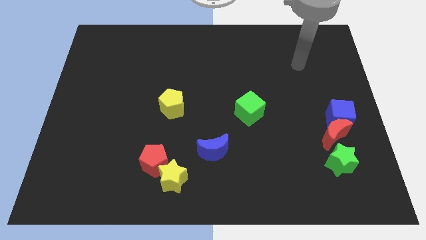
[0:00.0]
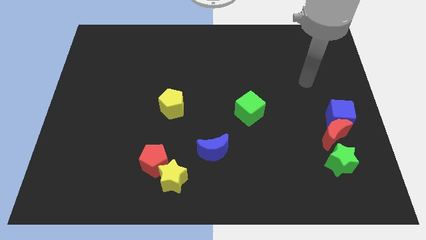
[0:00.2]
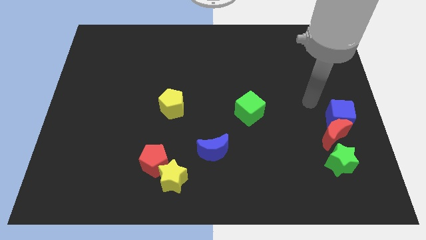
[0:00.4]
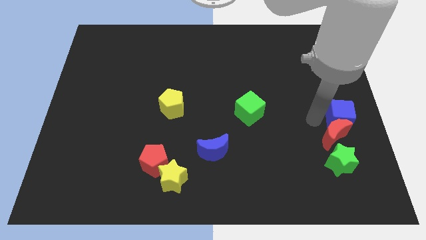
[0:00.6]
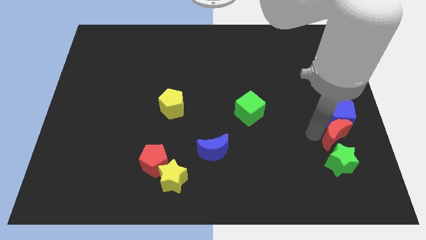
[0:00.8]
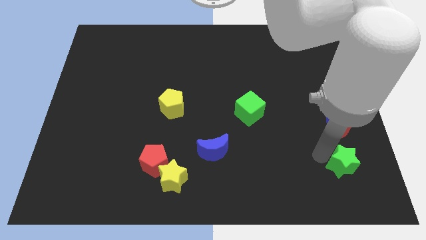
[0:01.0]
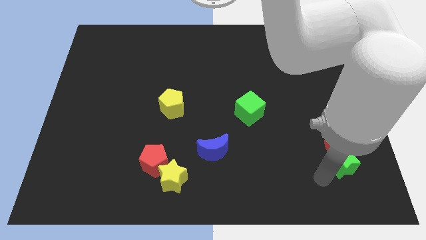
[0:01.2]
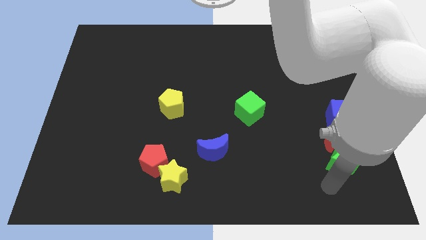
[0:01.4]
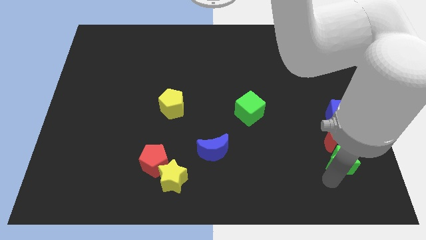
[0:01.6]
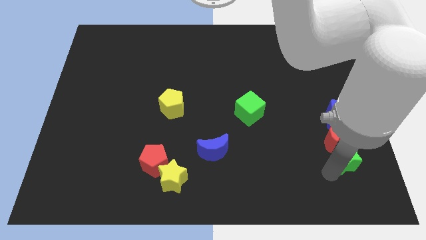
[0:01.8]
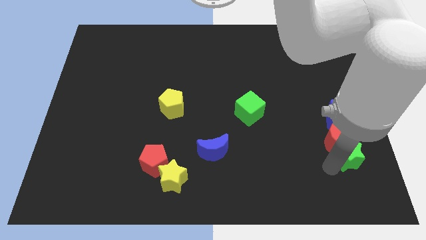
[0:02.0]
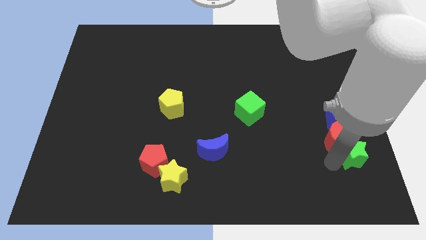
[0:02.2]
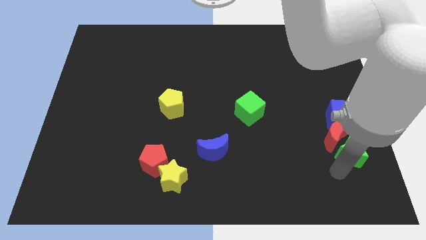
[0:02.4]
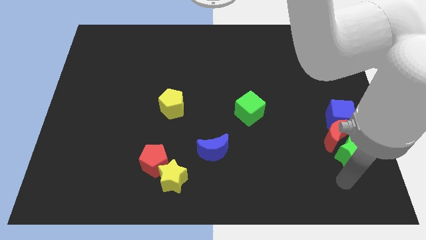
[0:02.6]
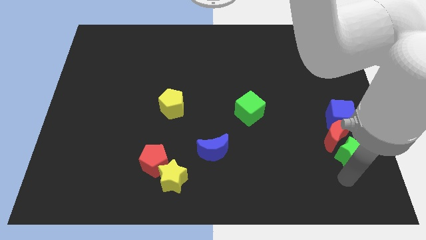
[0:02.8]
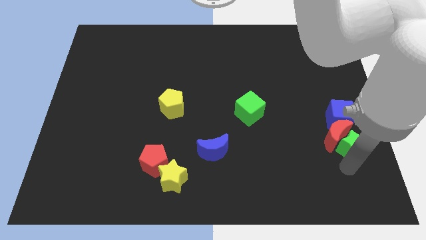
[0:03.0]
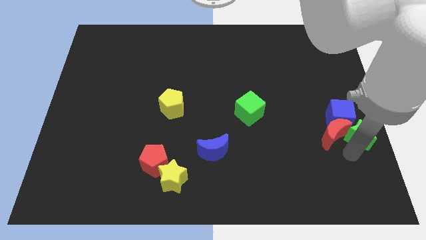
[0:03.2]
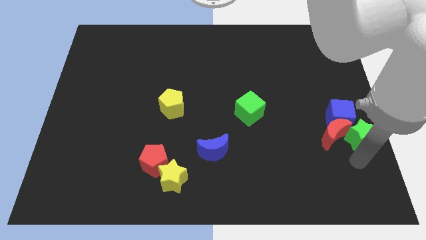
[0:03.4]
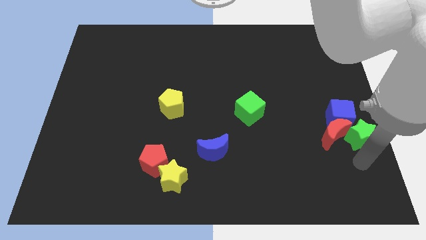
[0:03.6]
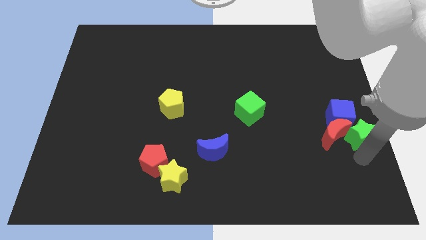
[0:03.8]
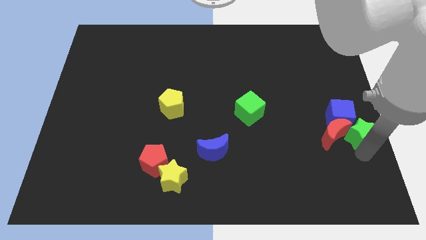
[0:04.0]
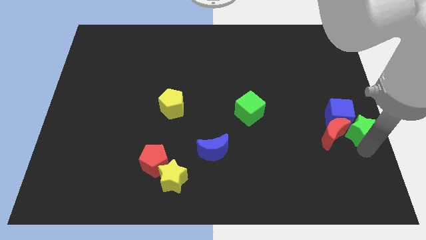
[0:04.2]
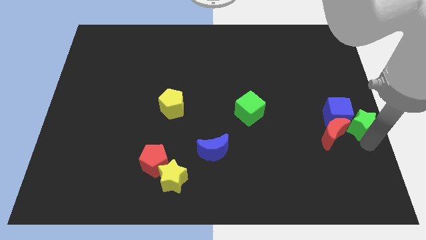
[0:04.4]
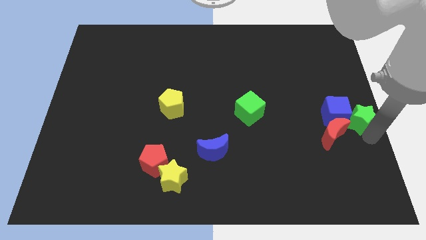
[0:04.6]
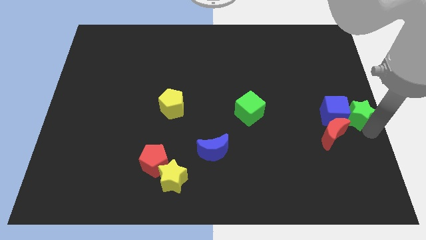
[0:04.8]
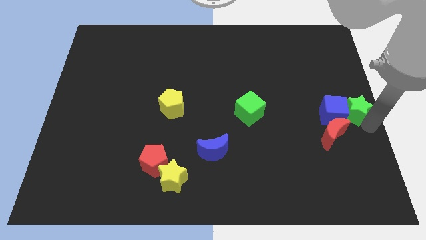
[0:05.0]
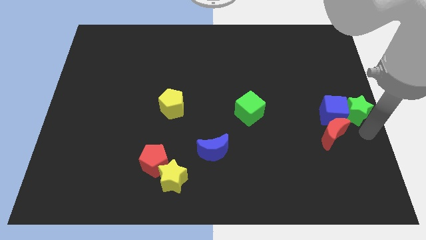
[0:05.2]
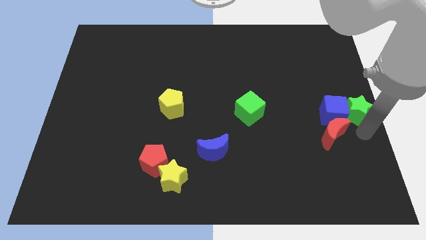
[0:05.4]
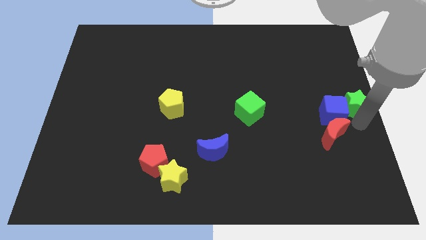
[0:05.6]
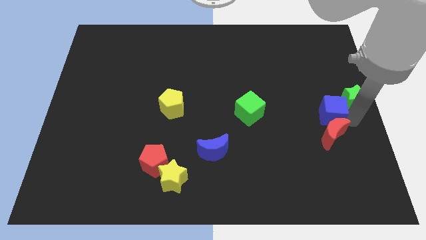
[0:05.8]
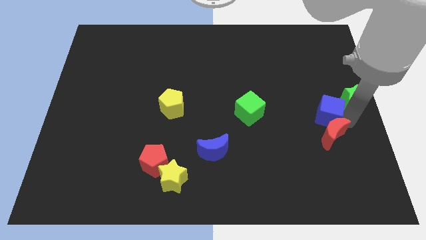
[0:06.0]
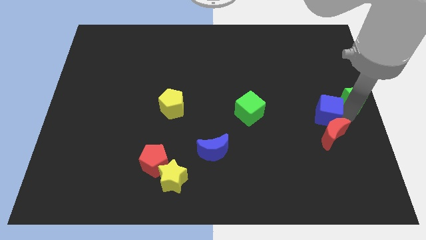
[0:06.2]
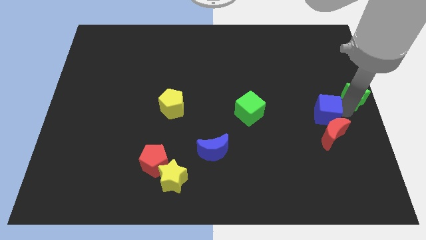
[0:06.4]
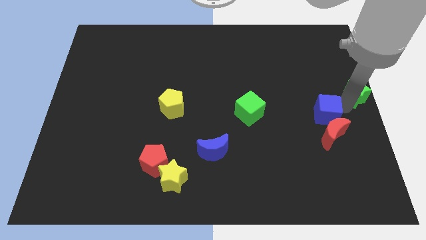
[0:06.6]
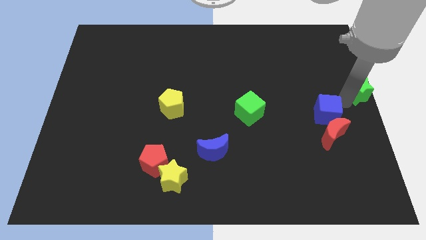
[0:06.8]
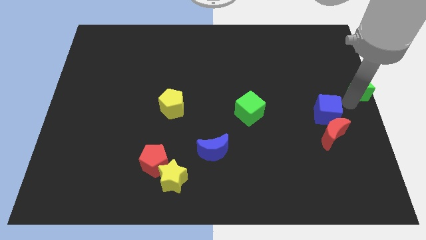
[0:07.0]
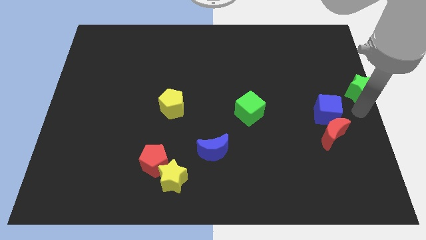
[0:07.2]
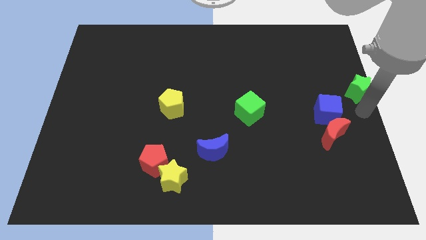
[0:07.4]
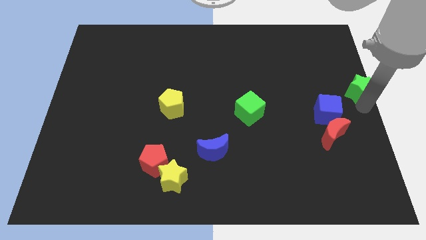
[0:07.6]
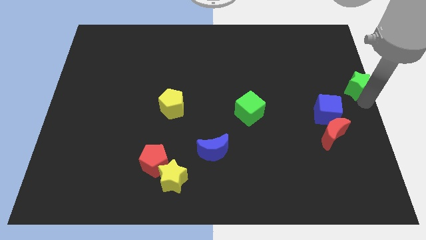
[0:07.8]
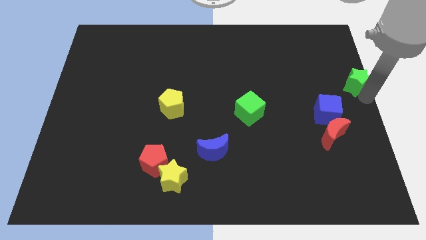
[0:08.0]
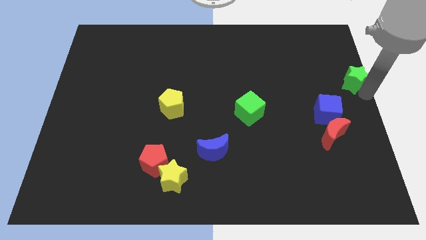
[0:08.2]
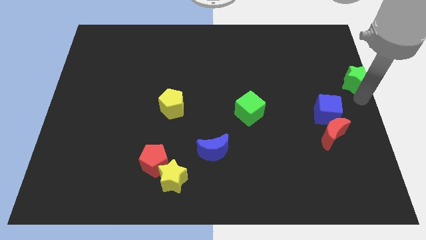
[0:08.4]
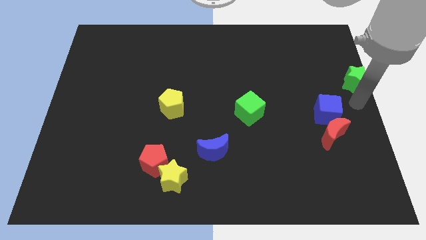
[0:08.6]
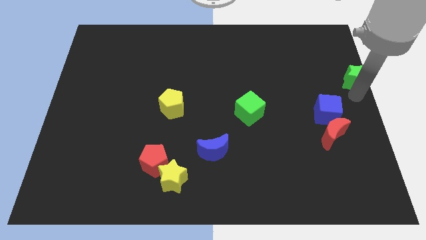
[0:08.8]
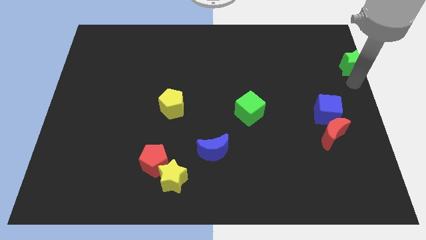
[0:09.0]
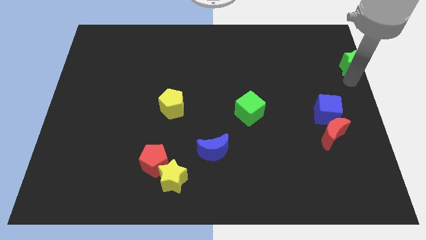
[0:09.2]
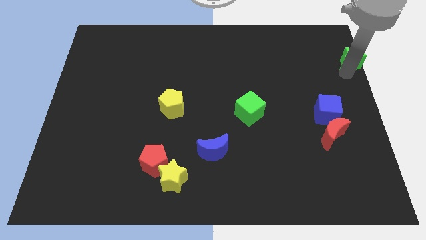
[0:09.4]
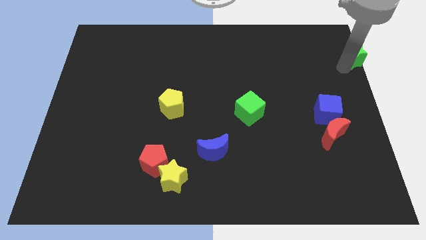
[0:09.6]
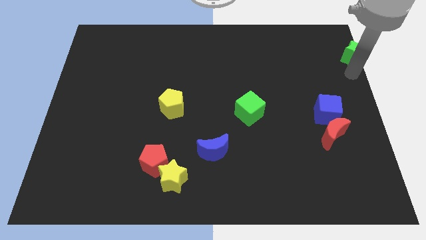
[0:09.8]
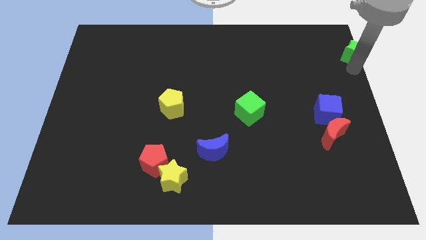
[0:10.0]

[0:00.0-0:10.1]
move the green star to the top right
